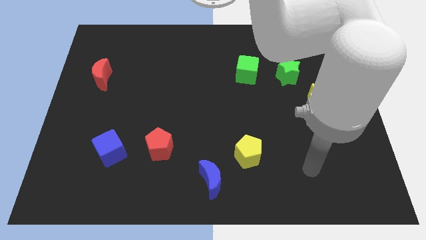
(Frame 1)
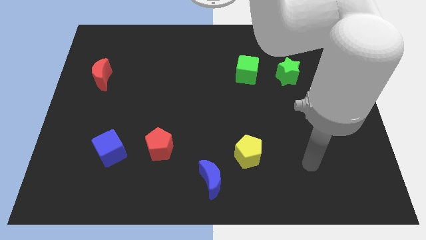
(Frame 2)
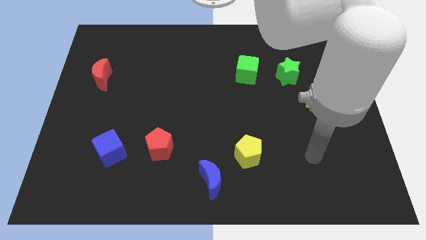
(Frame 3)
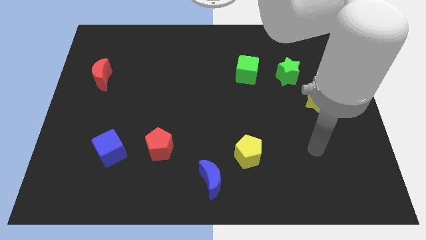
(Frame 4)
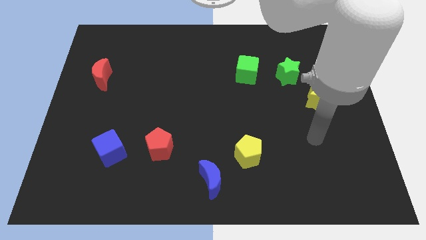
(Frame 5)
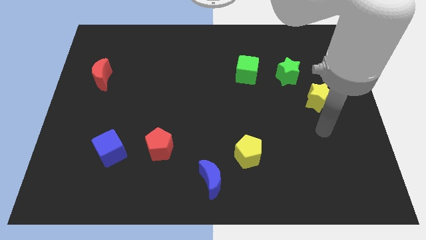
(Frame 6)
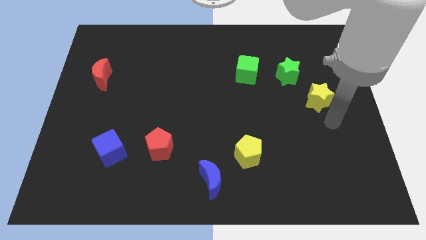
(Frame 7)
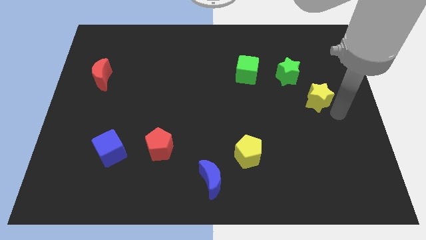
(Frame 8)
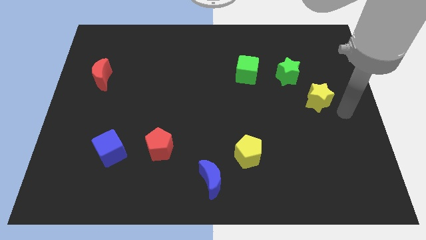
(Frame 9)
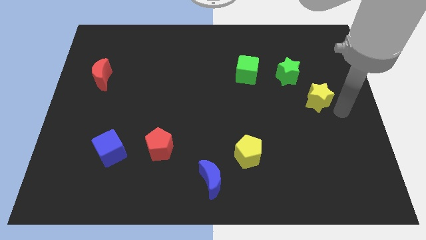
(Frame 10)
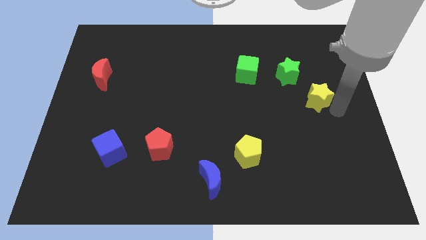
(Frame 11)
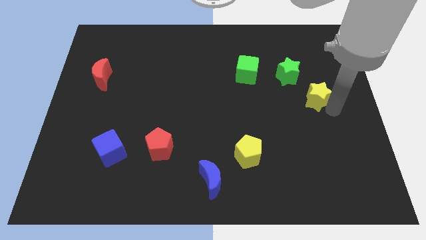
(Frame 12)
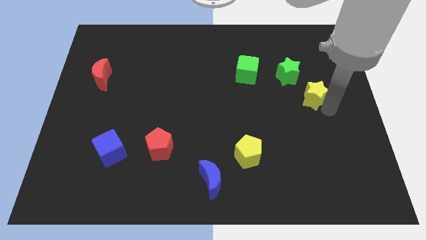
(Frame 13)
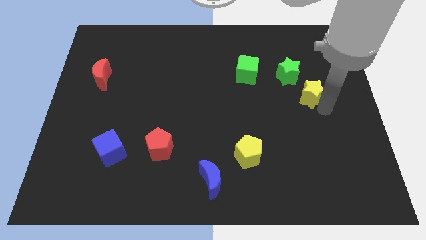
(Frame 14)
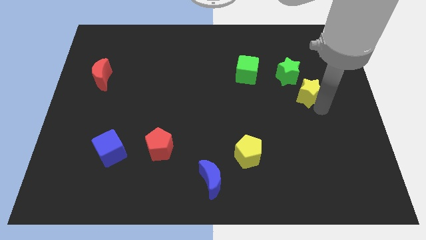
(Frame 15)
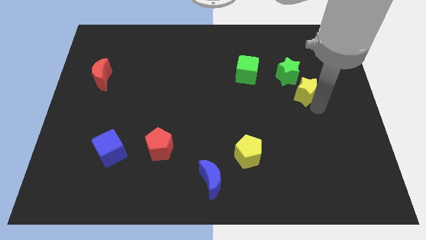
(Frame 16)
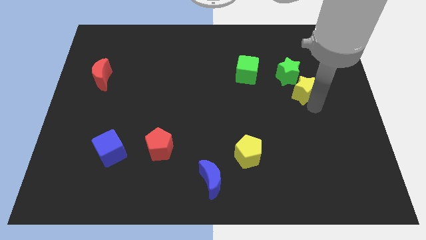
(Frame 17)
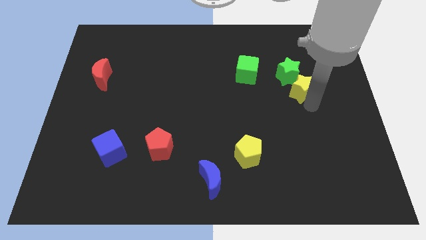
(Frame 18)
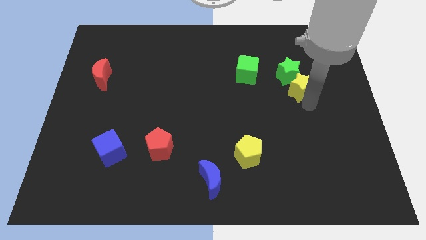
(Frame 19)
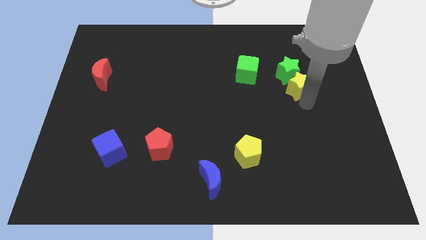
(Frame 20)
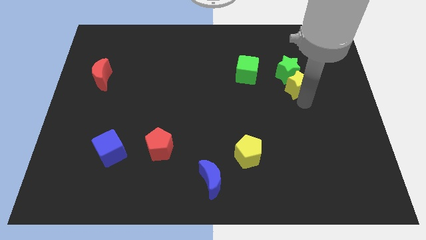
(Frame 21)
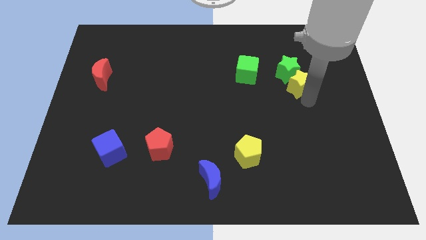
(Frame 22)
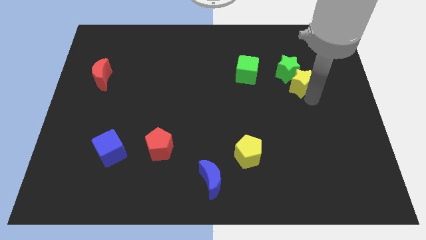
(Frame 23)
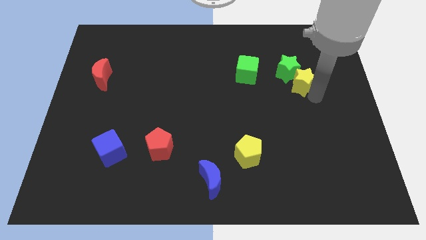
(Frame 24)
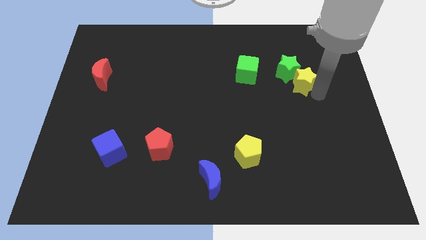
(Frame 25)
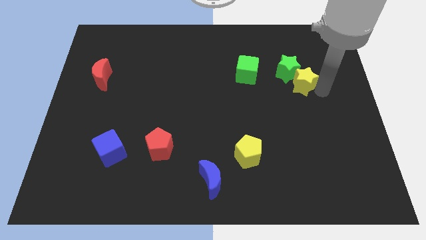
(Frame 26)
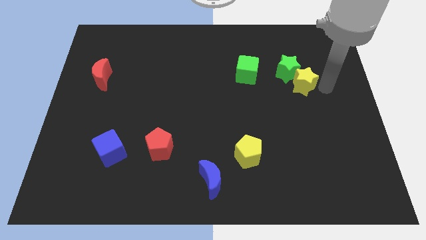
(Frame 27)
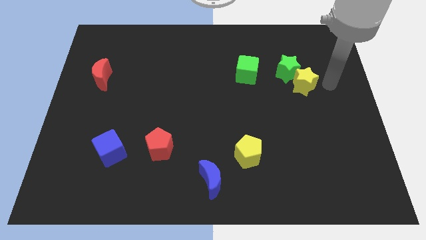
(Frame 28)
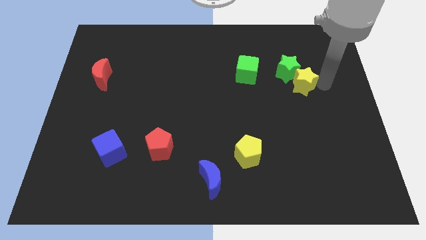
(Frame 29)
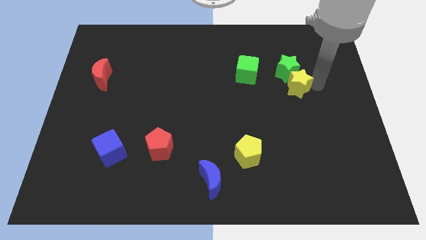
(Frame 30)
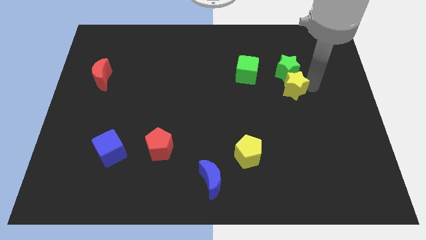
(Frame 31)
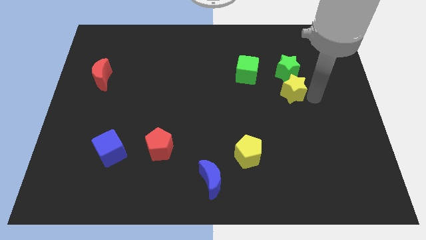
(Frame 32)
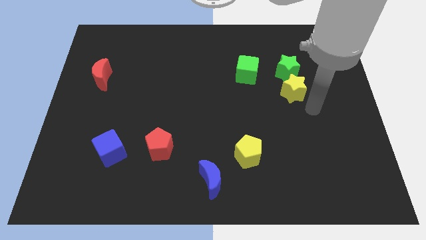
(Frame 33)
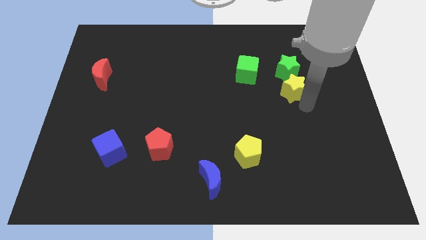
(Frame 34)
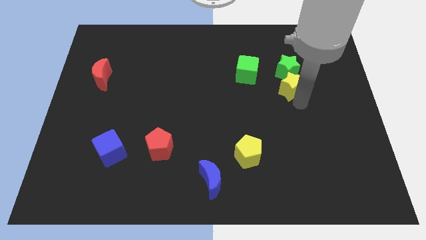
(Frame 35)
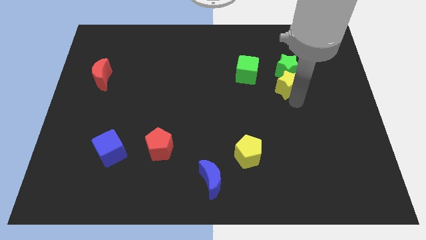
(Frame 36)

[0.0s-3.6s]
slide the yellow star a bit up and left

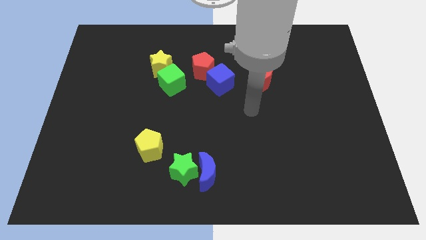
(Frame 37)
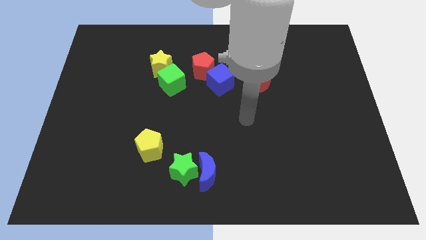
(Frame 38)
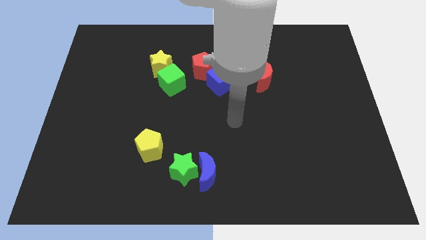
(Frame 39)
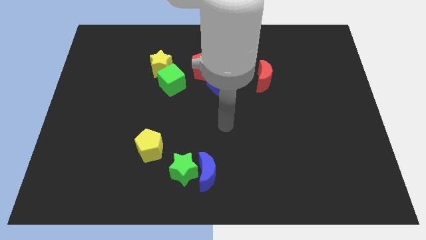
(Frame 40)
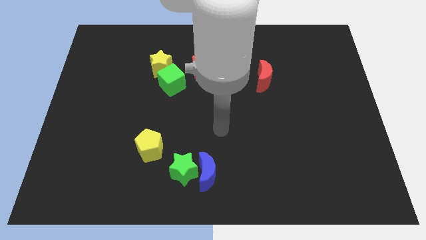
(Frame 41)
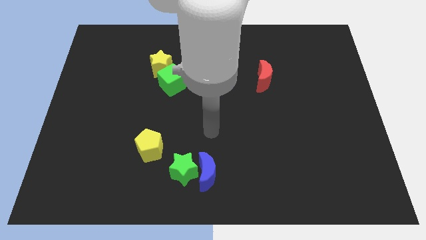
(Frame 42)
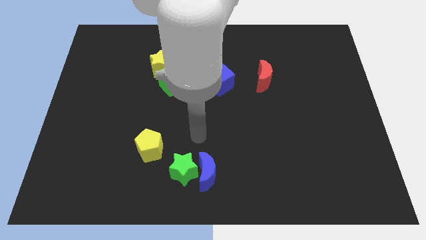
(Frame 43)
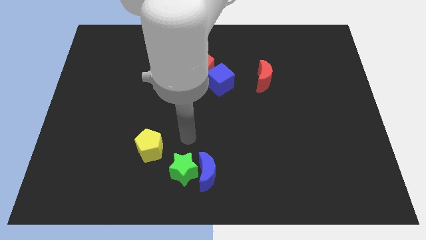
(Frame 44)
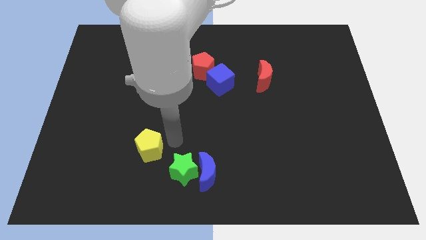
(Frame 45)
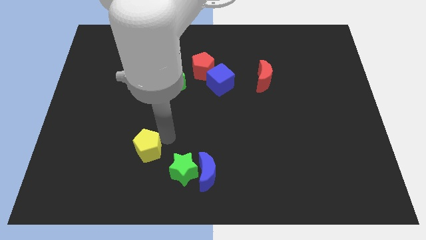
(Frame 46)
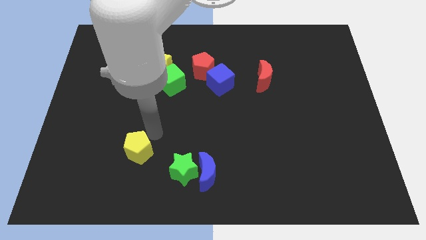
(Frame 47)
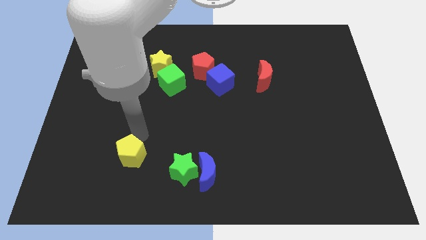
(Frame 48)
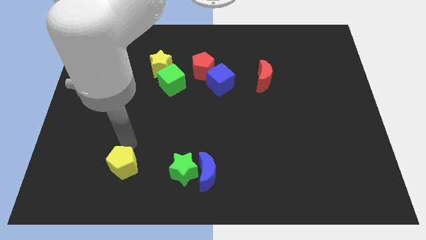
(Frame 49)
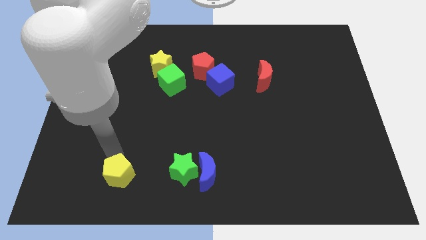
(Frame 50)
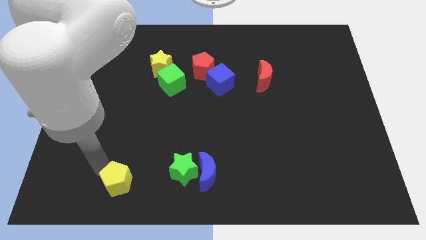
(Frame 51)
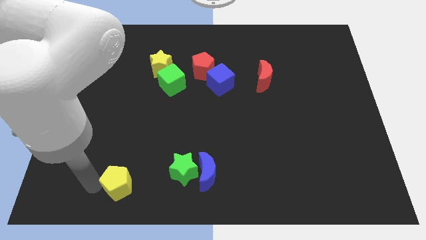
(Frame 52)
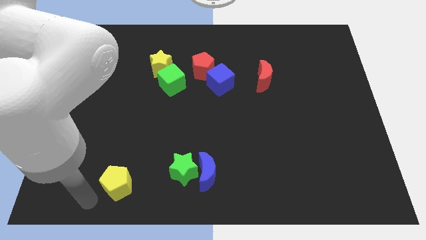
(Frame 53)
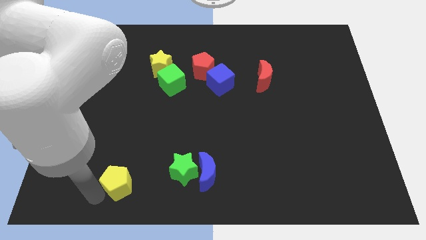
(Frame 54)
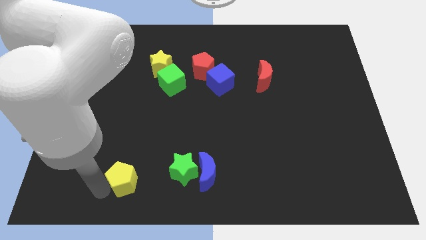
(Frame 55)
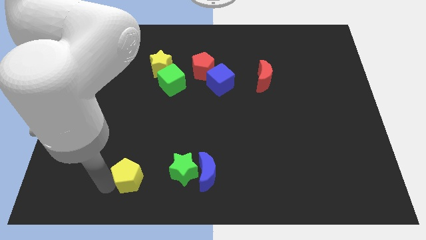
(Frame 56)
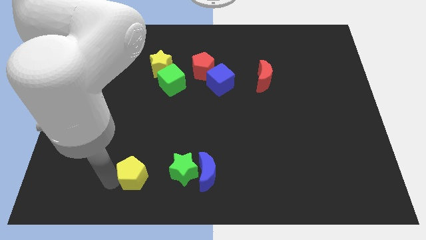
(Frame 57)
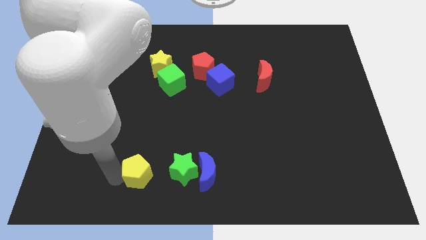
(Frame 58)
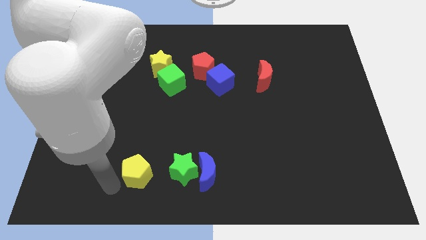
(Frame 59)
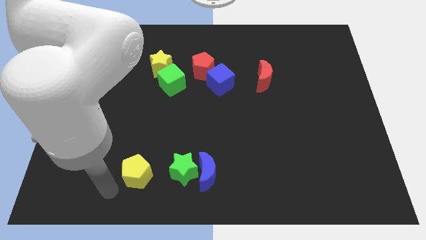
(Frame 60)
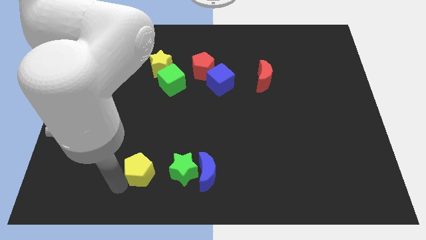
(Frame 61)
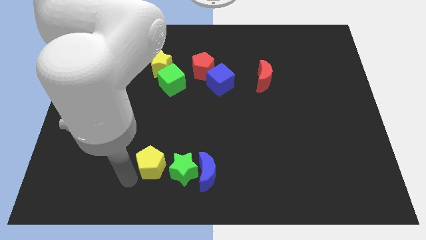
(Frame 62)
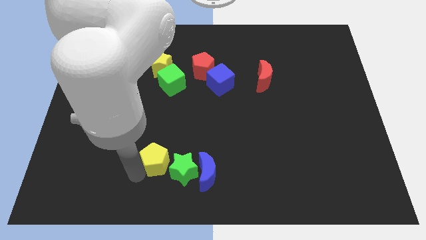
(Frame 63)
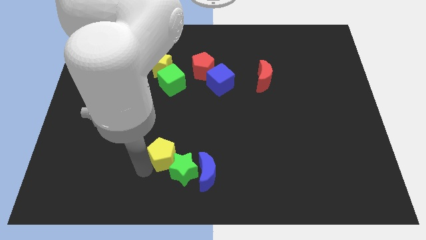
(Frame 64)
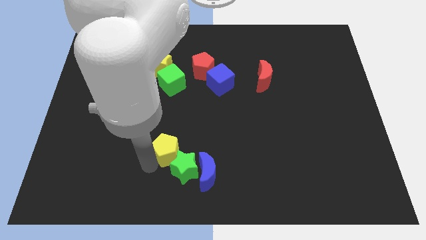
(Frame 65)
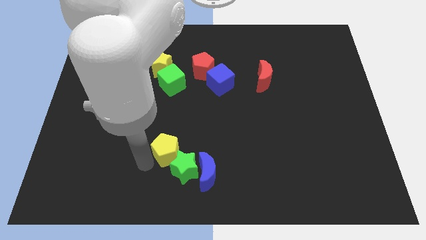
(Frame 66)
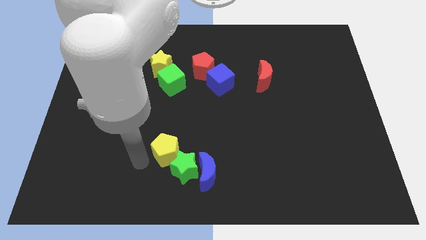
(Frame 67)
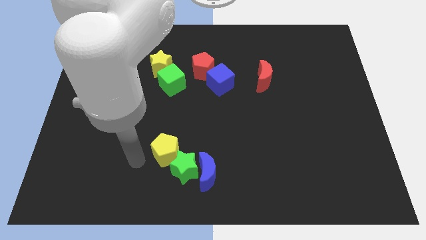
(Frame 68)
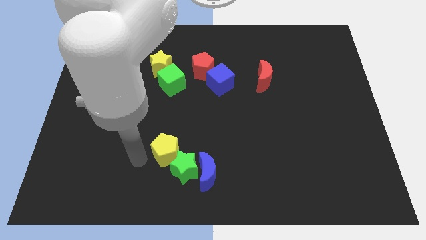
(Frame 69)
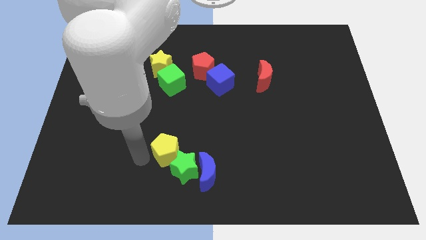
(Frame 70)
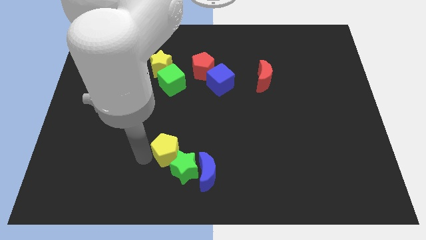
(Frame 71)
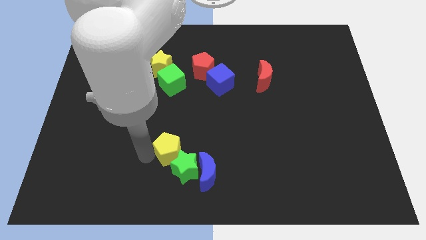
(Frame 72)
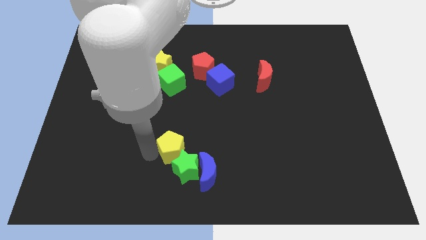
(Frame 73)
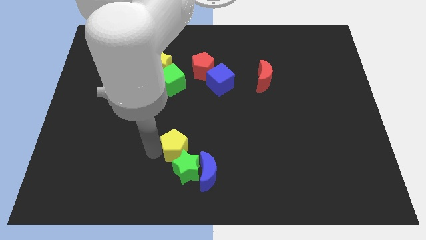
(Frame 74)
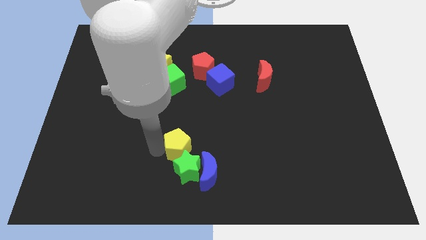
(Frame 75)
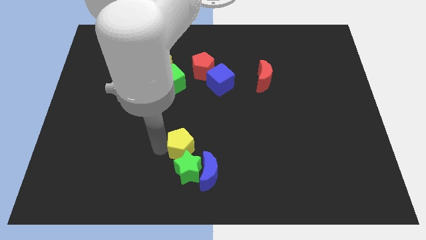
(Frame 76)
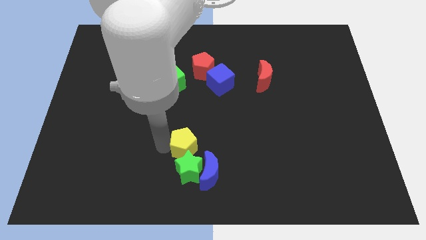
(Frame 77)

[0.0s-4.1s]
slightly move the yellow pentagon to the right

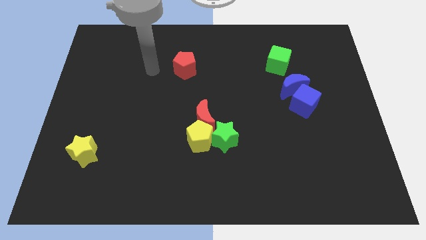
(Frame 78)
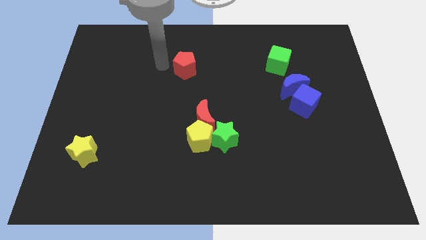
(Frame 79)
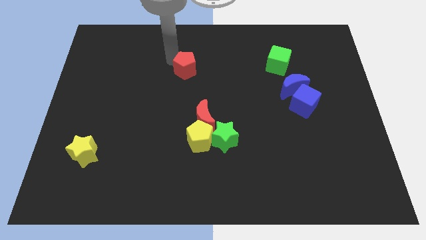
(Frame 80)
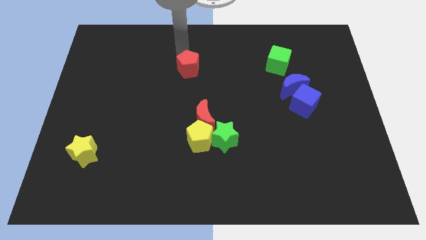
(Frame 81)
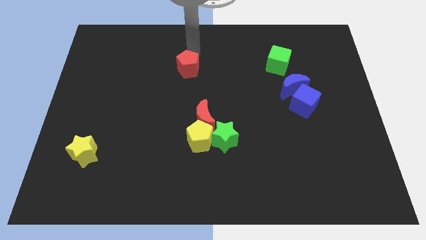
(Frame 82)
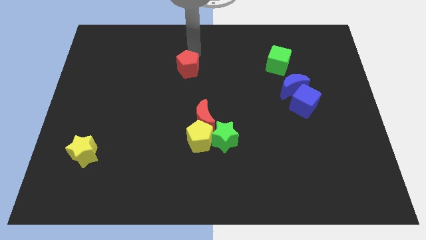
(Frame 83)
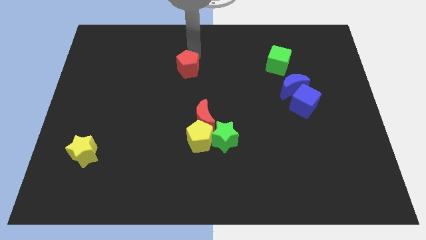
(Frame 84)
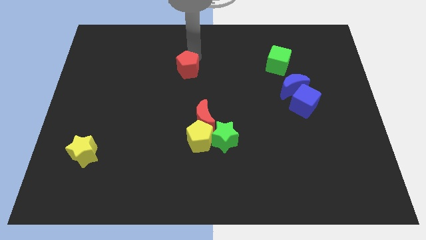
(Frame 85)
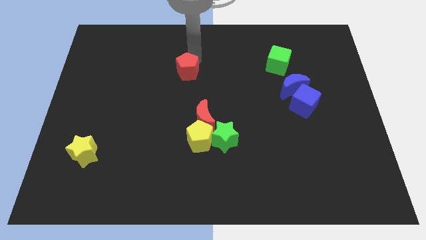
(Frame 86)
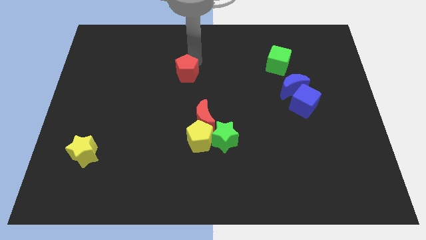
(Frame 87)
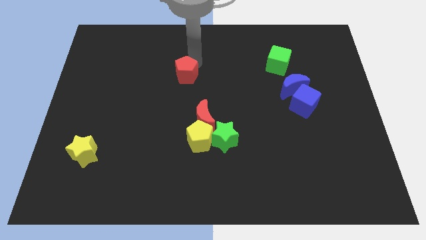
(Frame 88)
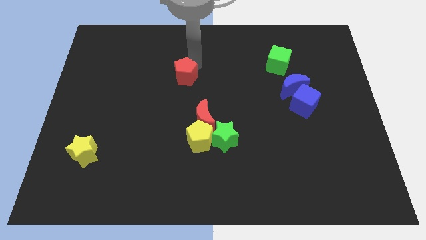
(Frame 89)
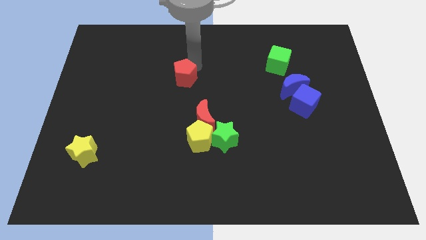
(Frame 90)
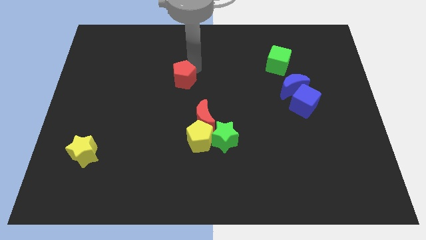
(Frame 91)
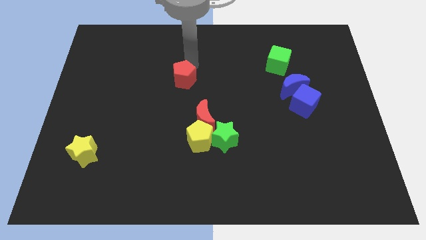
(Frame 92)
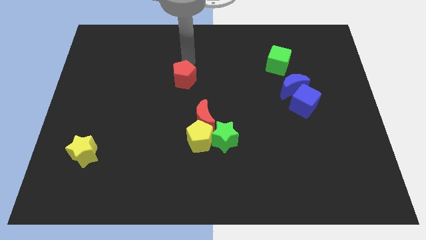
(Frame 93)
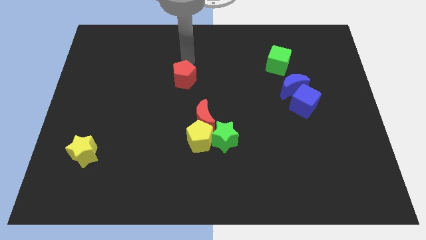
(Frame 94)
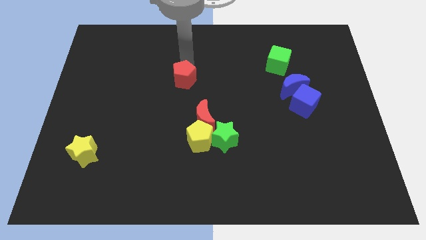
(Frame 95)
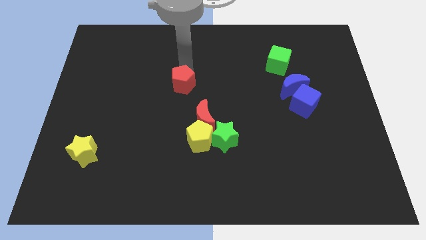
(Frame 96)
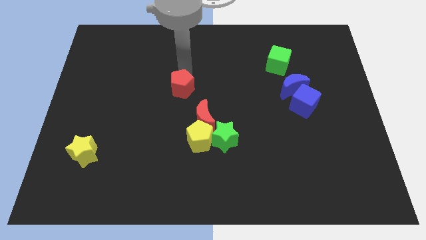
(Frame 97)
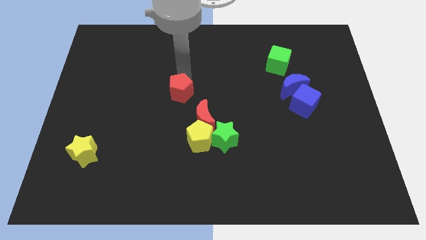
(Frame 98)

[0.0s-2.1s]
slightly push the red pentagon downwards
